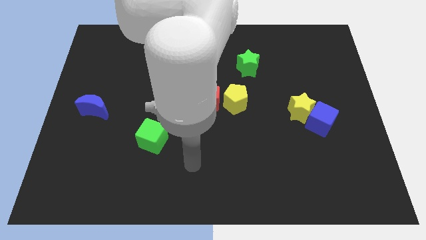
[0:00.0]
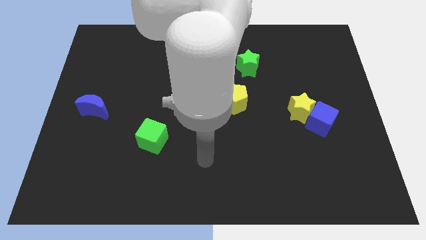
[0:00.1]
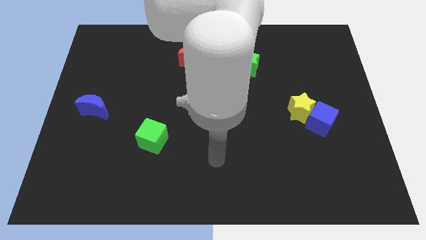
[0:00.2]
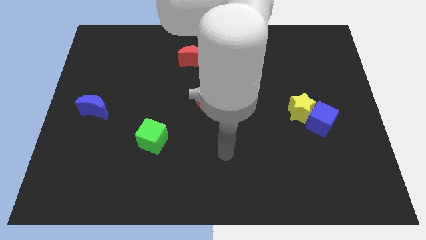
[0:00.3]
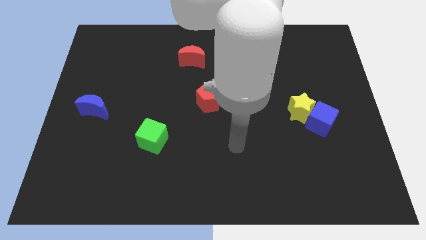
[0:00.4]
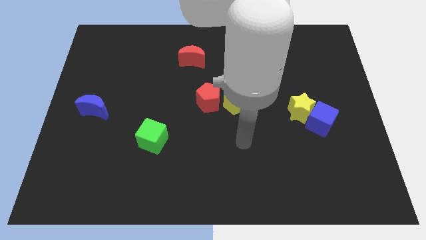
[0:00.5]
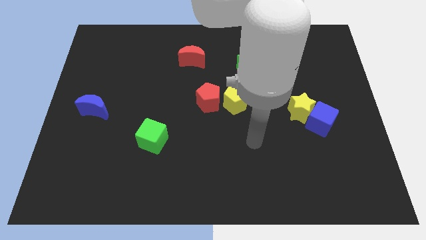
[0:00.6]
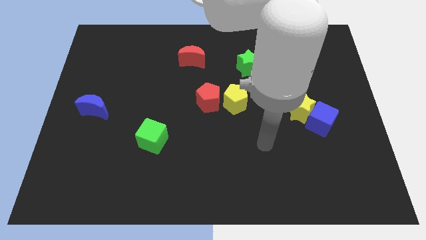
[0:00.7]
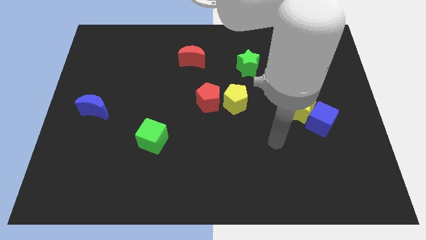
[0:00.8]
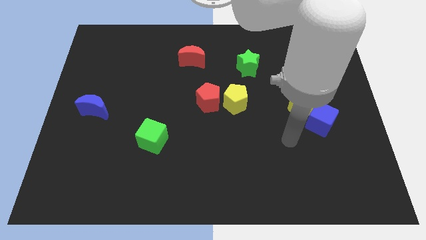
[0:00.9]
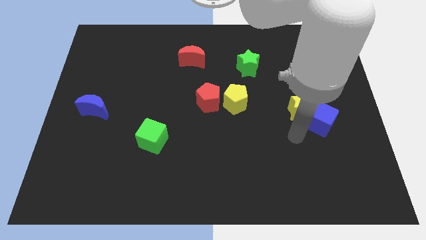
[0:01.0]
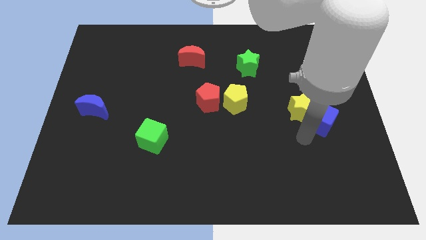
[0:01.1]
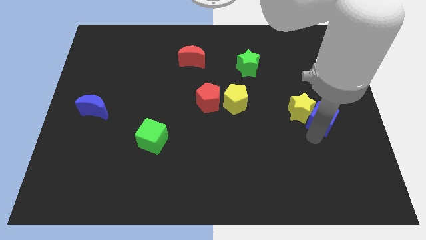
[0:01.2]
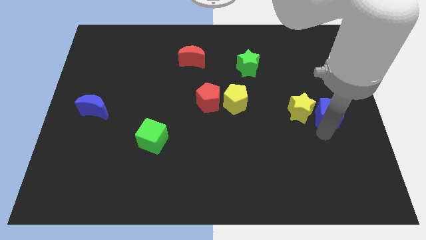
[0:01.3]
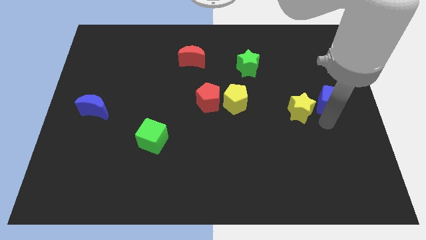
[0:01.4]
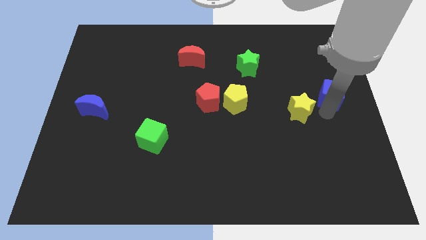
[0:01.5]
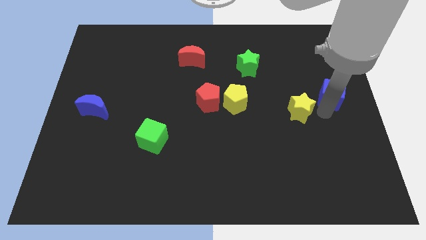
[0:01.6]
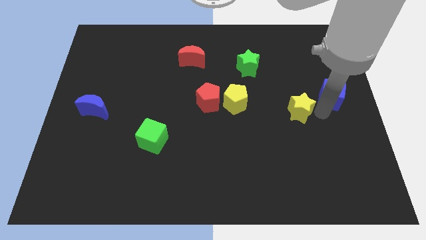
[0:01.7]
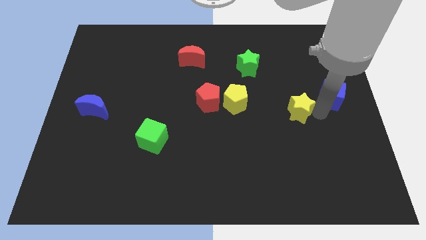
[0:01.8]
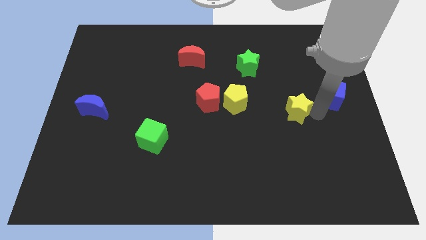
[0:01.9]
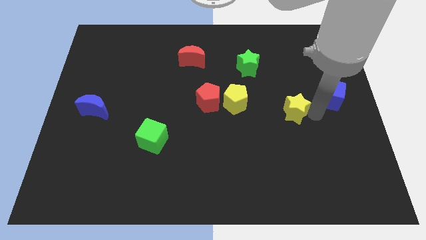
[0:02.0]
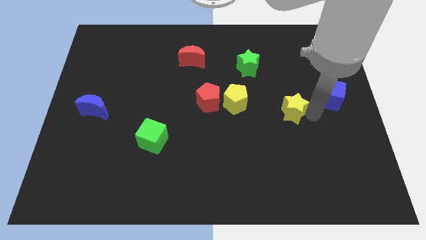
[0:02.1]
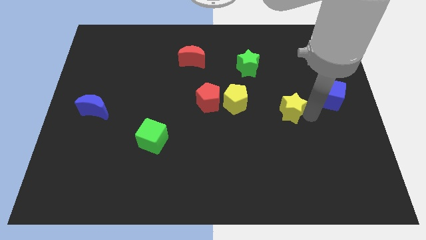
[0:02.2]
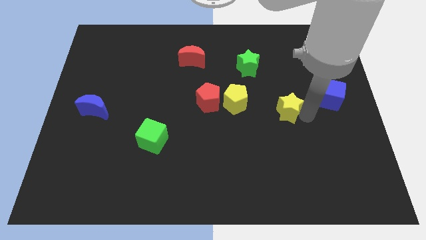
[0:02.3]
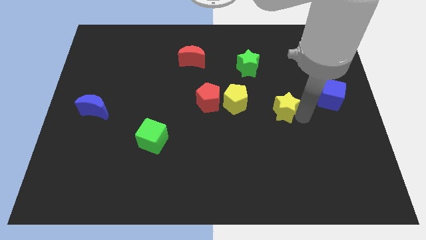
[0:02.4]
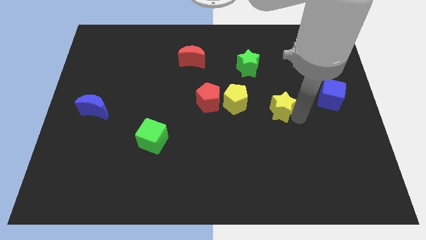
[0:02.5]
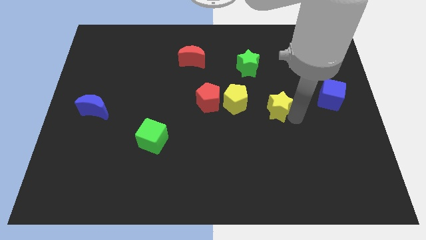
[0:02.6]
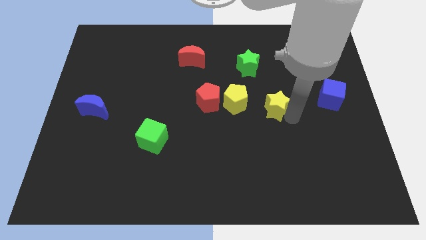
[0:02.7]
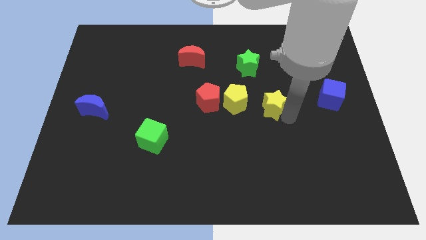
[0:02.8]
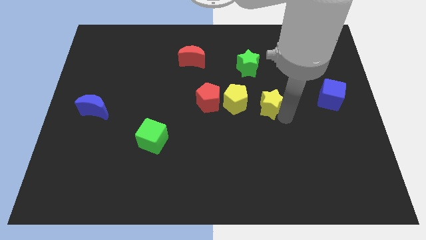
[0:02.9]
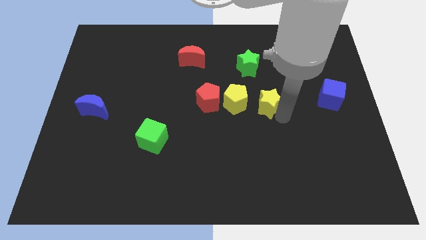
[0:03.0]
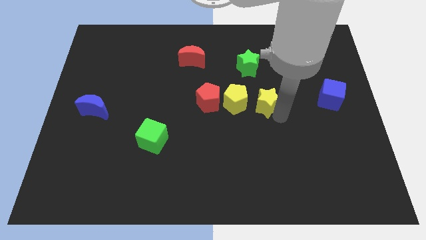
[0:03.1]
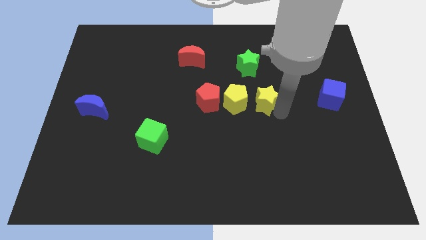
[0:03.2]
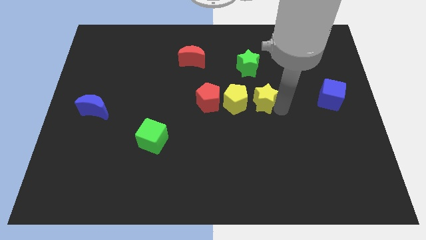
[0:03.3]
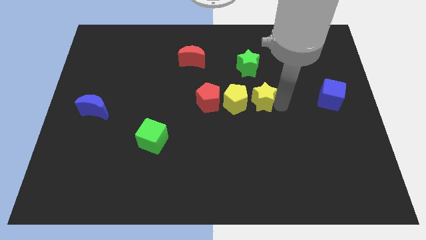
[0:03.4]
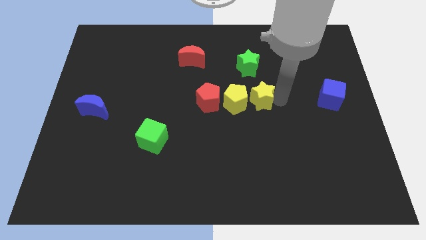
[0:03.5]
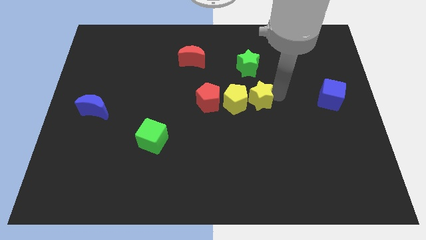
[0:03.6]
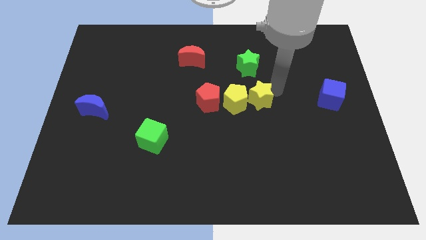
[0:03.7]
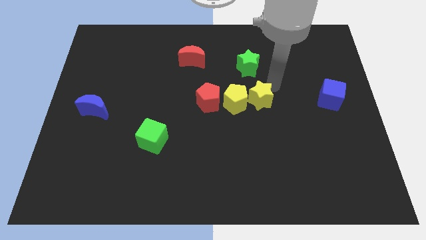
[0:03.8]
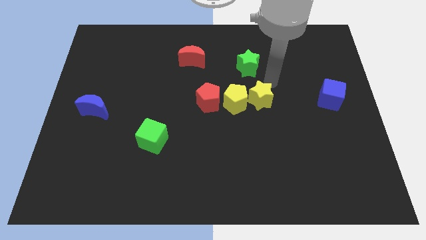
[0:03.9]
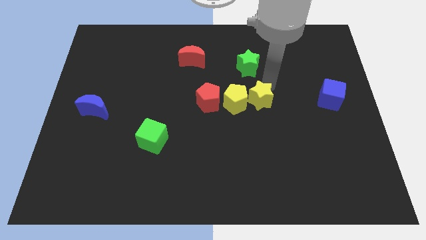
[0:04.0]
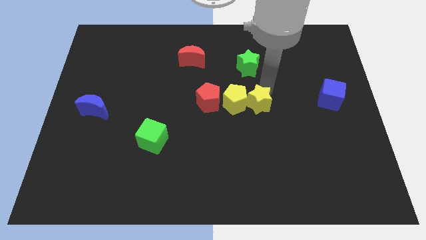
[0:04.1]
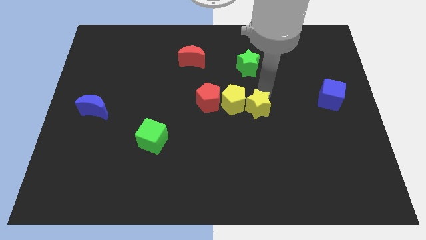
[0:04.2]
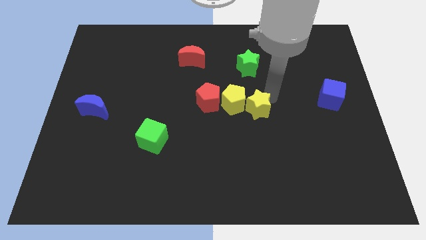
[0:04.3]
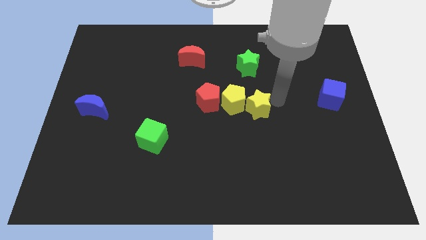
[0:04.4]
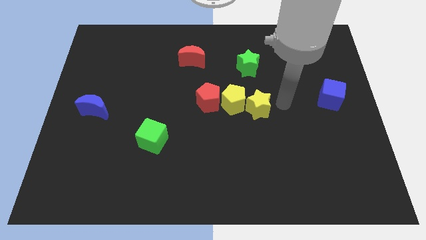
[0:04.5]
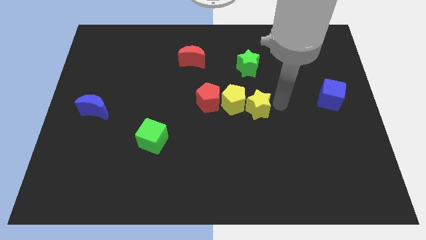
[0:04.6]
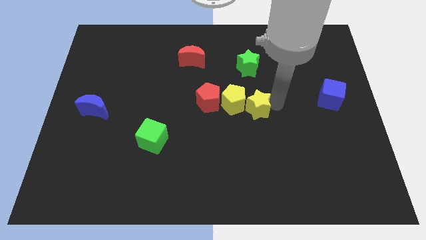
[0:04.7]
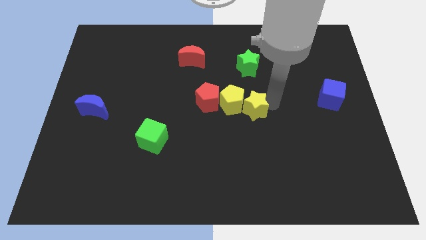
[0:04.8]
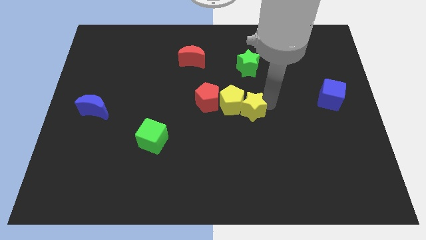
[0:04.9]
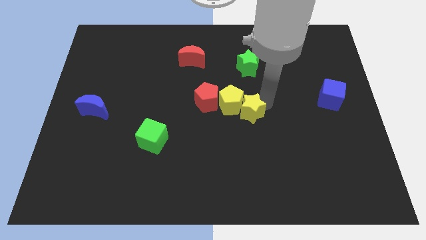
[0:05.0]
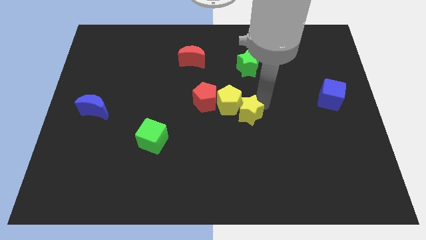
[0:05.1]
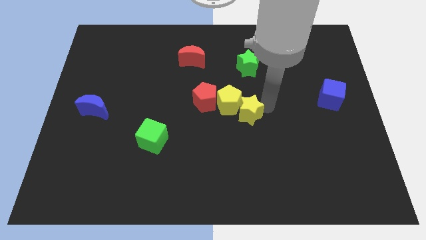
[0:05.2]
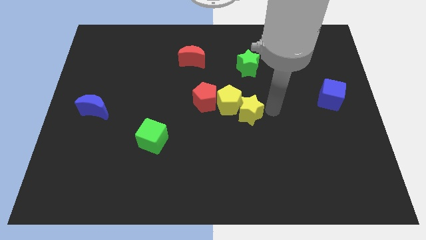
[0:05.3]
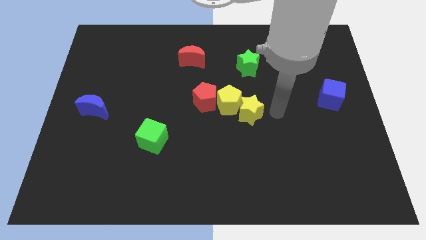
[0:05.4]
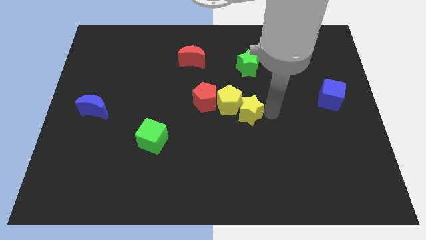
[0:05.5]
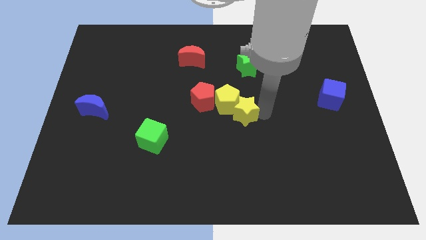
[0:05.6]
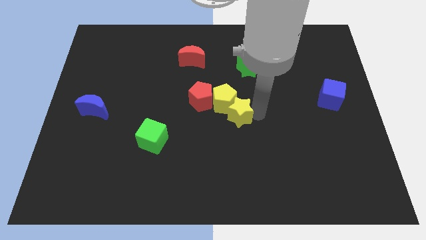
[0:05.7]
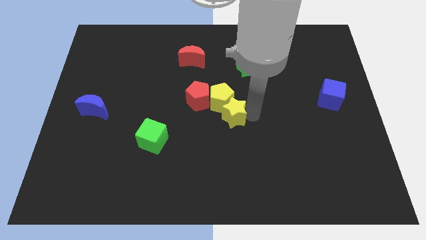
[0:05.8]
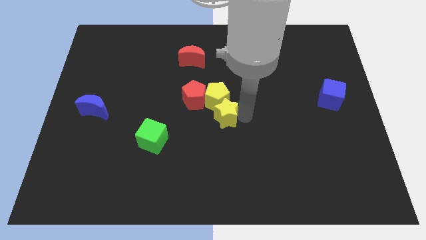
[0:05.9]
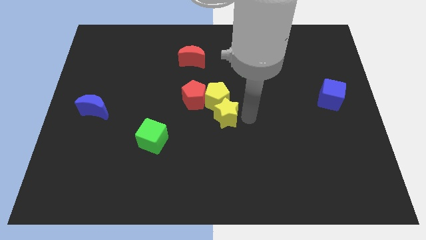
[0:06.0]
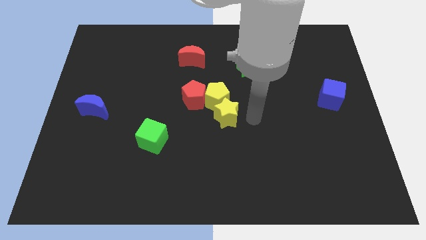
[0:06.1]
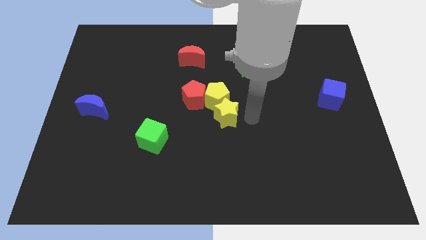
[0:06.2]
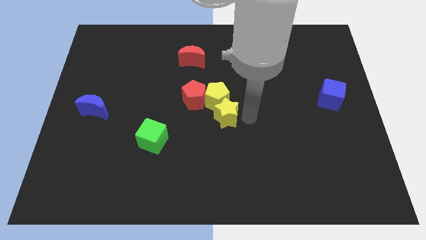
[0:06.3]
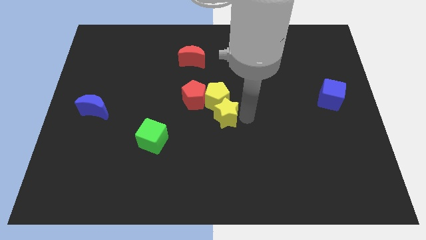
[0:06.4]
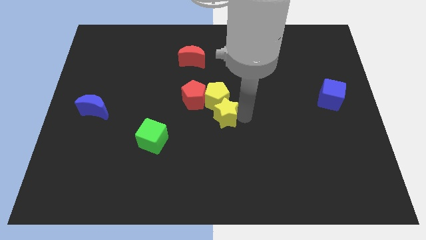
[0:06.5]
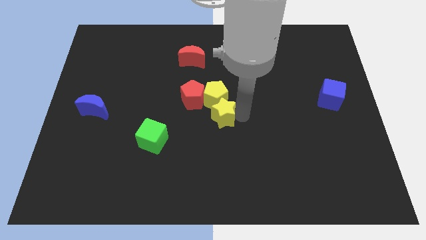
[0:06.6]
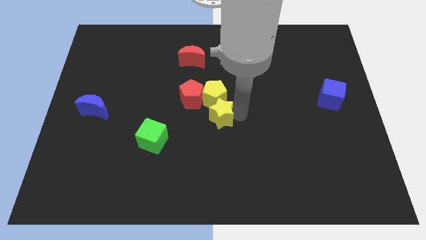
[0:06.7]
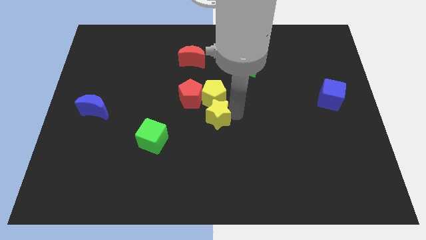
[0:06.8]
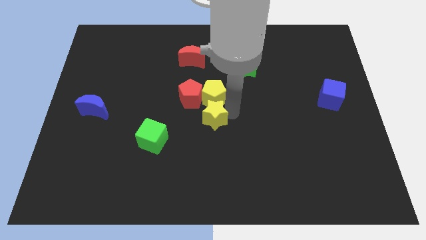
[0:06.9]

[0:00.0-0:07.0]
push the yellow star to the left

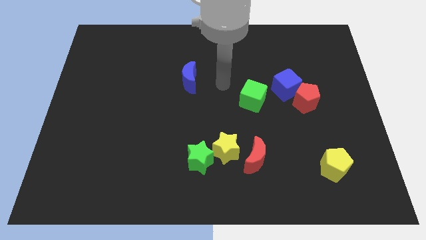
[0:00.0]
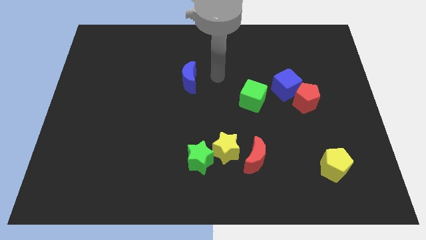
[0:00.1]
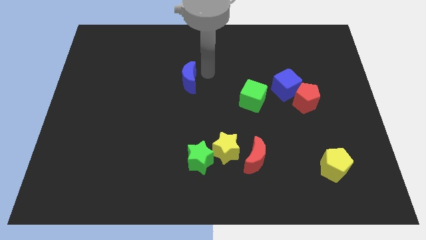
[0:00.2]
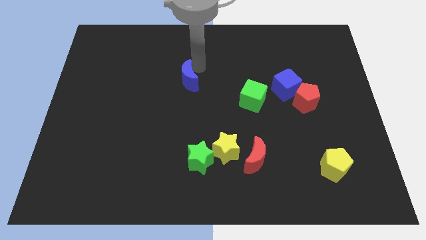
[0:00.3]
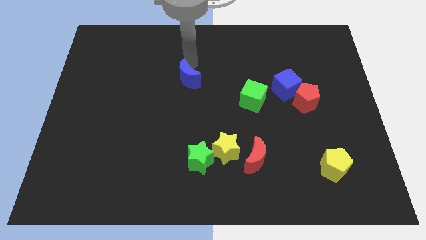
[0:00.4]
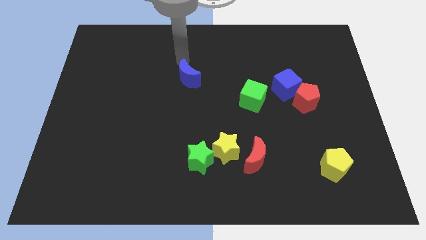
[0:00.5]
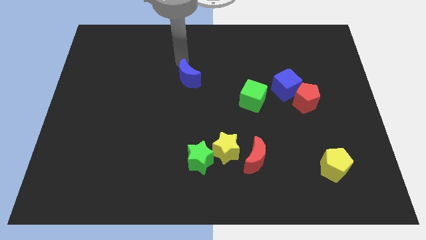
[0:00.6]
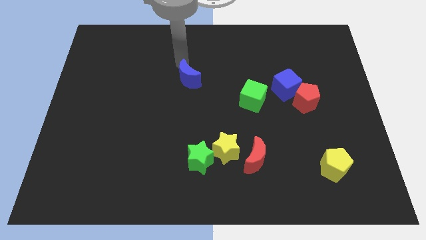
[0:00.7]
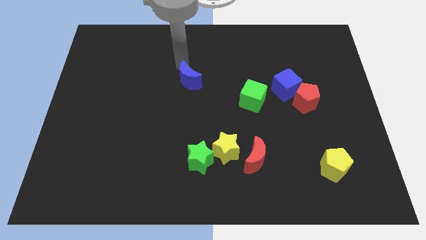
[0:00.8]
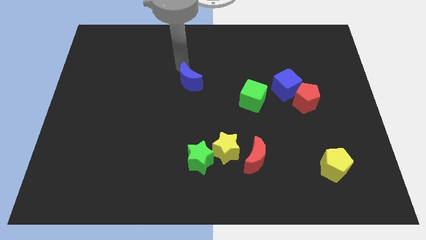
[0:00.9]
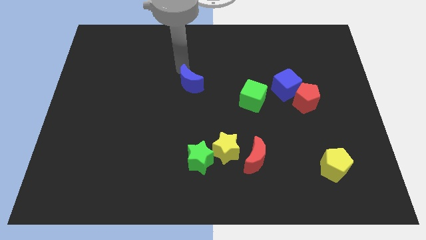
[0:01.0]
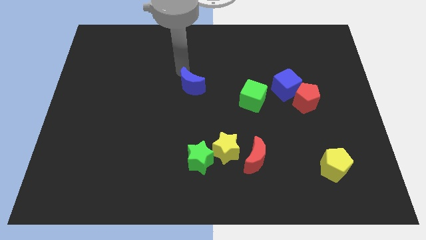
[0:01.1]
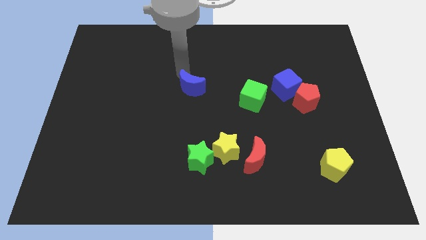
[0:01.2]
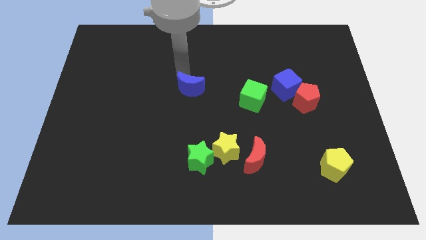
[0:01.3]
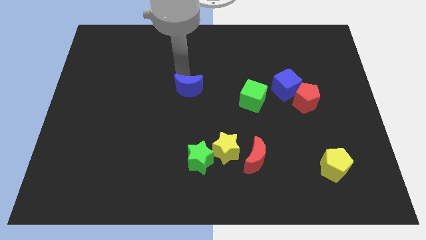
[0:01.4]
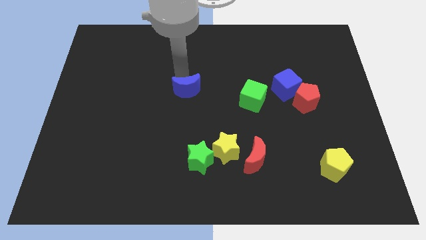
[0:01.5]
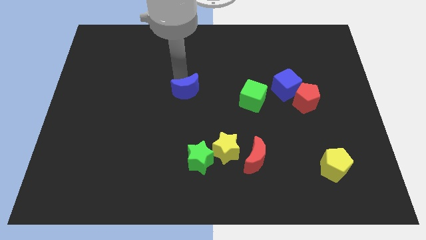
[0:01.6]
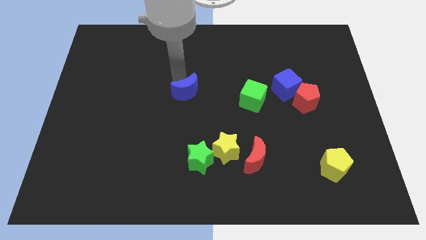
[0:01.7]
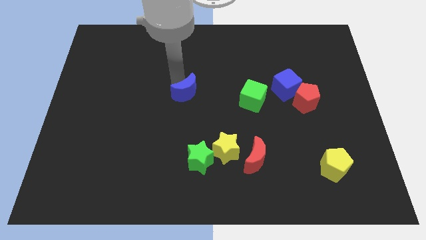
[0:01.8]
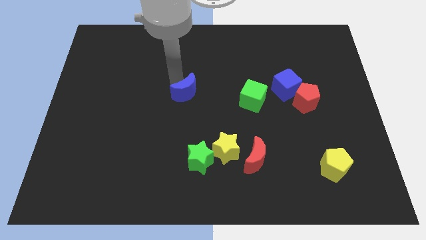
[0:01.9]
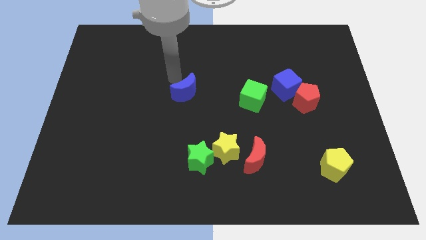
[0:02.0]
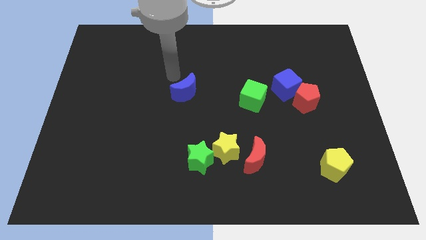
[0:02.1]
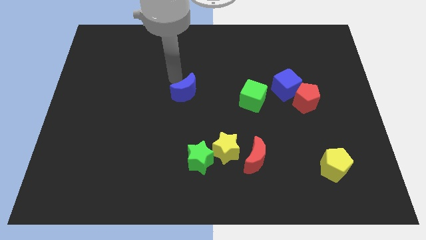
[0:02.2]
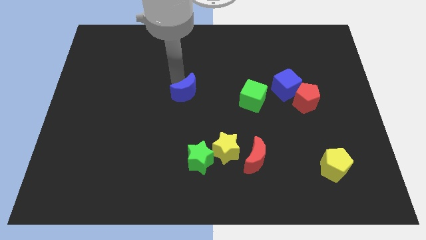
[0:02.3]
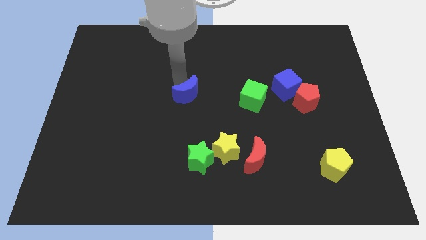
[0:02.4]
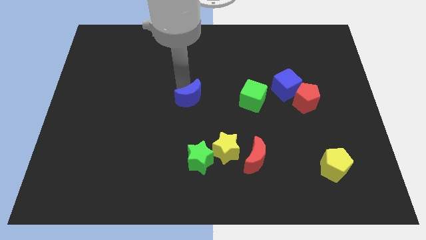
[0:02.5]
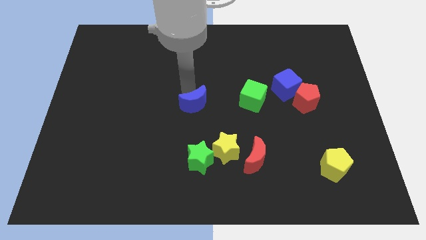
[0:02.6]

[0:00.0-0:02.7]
move the blue moon down somewhat
